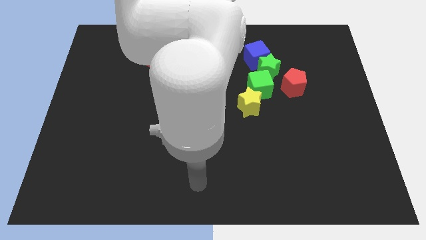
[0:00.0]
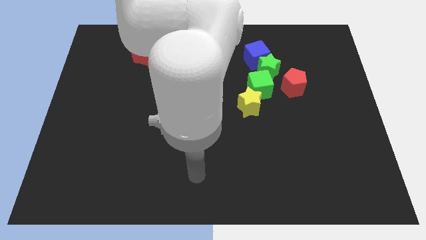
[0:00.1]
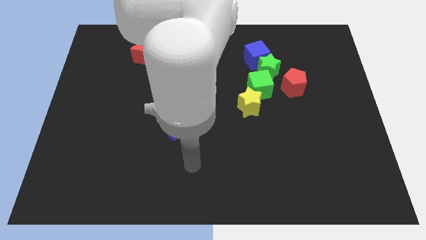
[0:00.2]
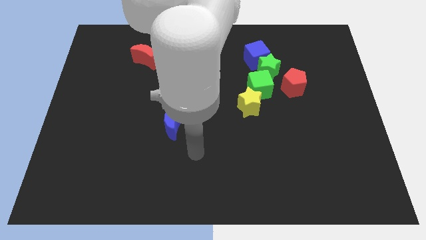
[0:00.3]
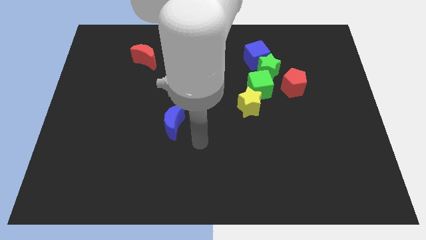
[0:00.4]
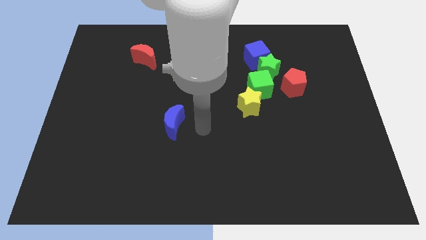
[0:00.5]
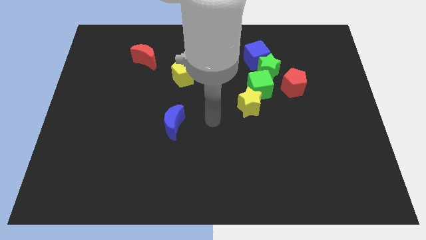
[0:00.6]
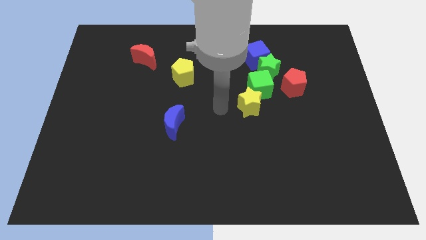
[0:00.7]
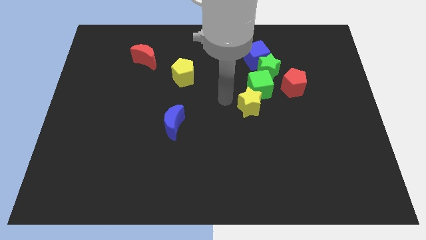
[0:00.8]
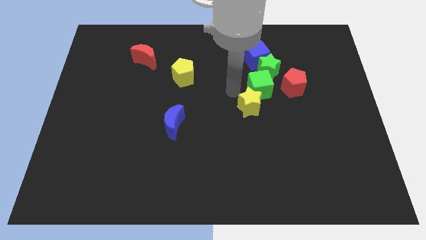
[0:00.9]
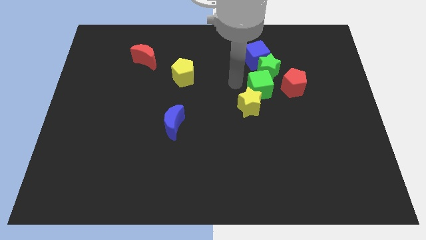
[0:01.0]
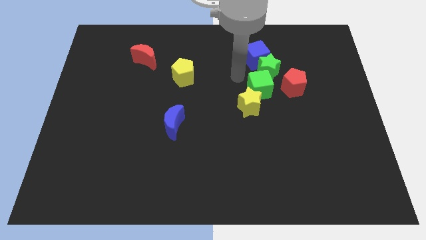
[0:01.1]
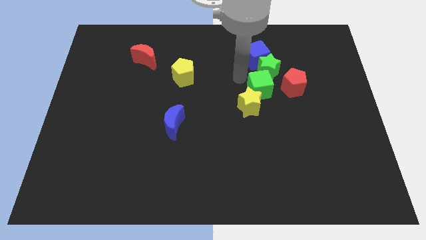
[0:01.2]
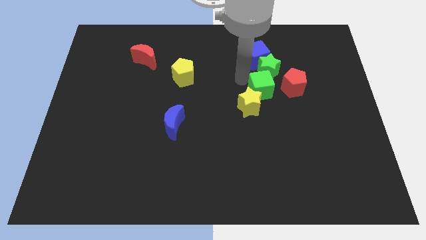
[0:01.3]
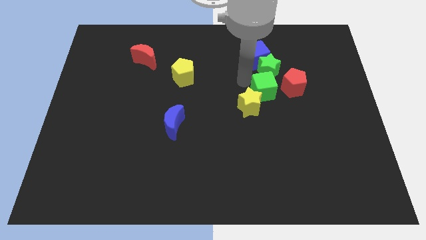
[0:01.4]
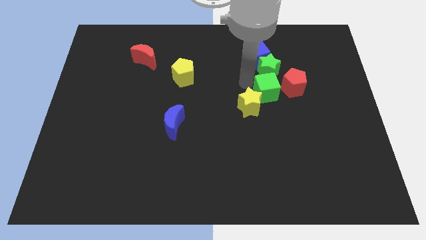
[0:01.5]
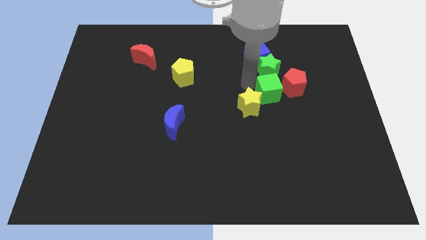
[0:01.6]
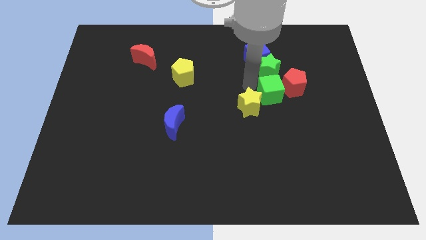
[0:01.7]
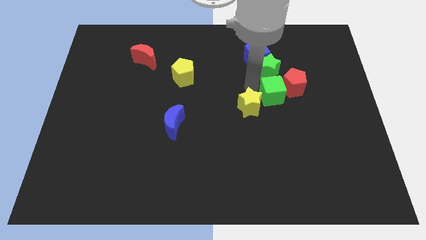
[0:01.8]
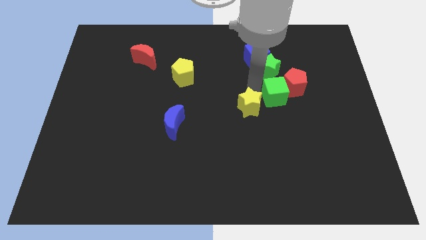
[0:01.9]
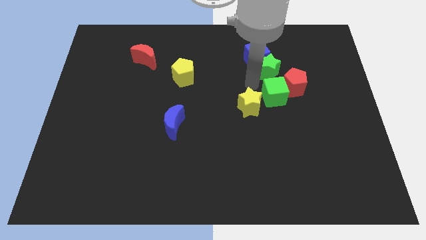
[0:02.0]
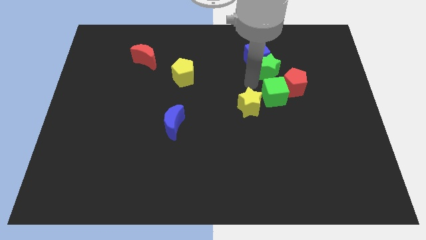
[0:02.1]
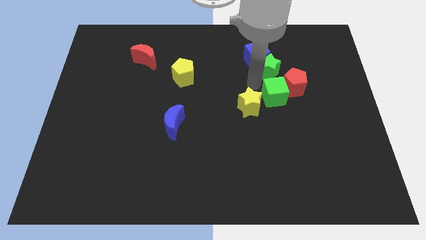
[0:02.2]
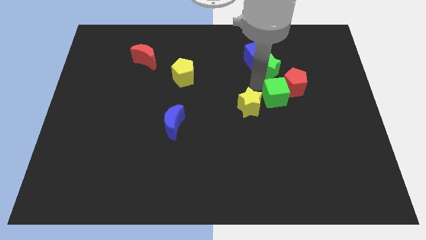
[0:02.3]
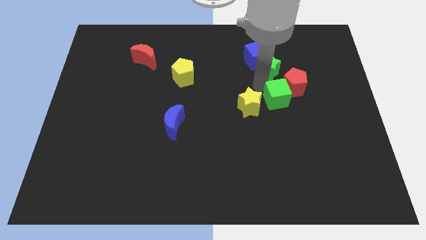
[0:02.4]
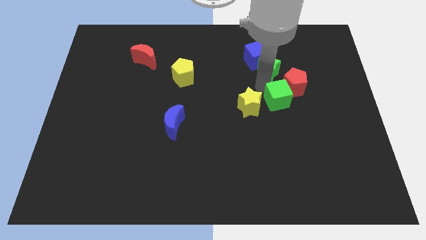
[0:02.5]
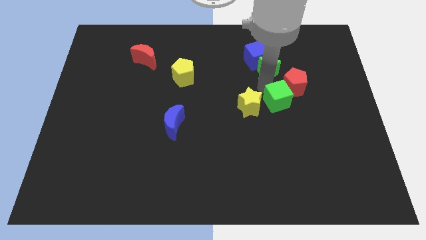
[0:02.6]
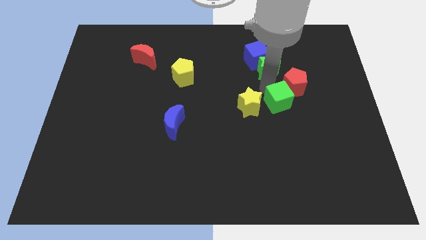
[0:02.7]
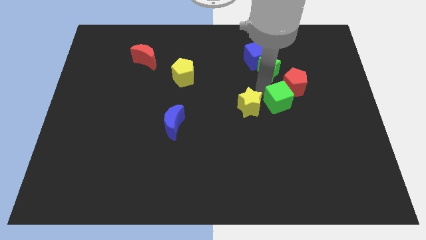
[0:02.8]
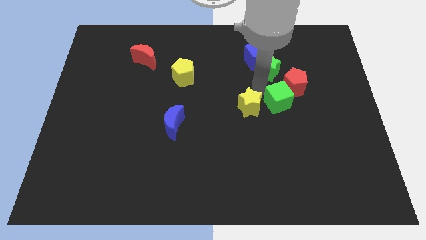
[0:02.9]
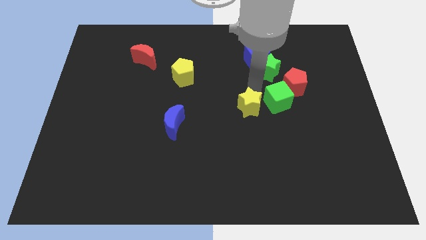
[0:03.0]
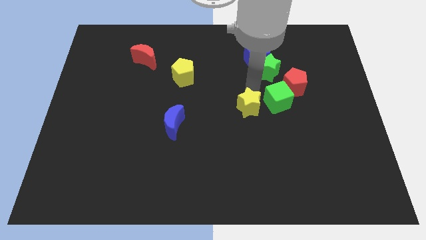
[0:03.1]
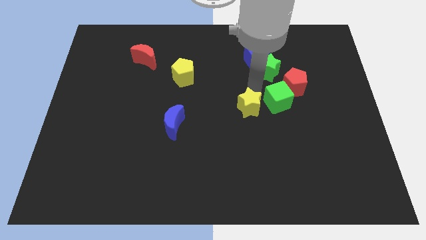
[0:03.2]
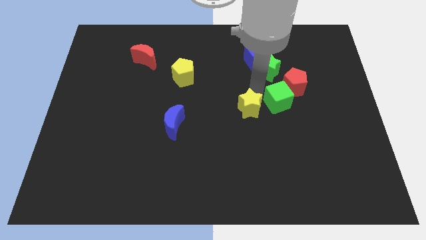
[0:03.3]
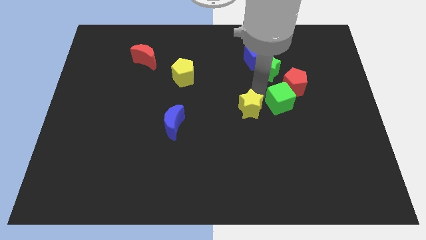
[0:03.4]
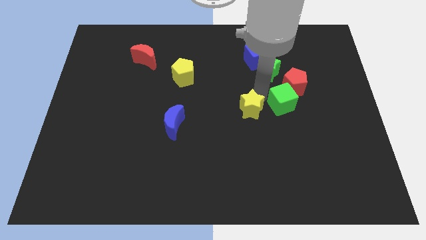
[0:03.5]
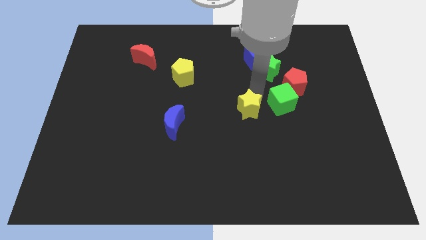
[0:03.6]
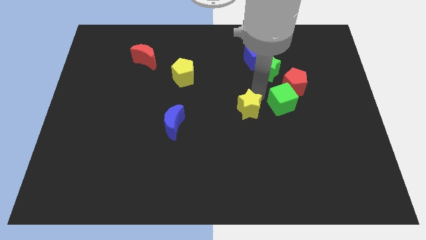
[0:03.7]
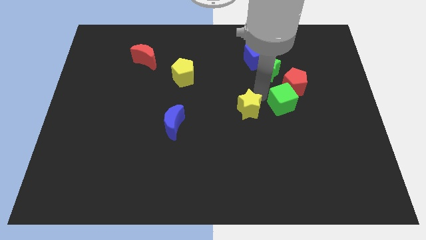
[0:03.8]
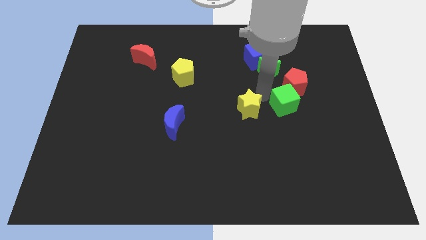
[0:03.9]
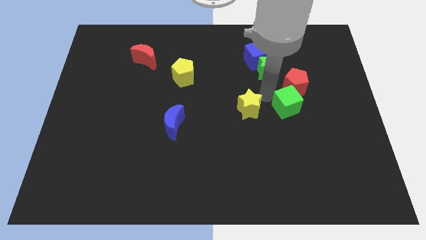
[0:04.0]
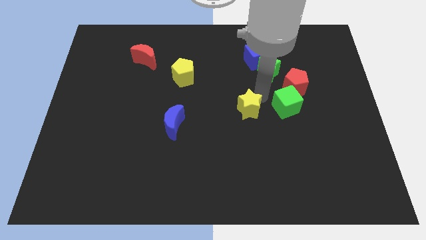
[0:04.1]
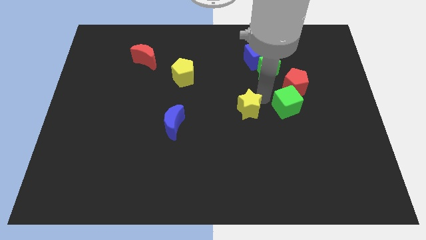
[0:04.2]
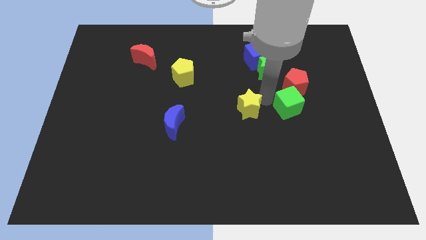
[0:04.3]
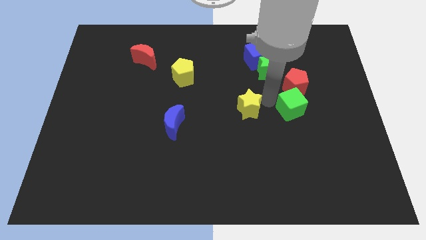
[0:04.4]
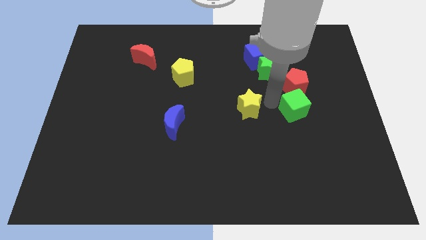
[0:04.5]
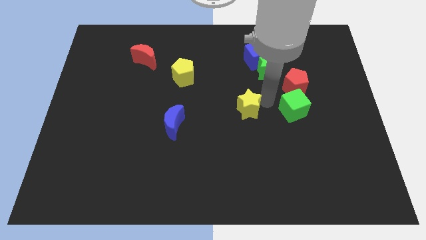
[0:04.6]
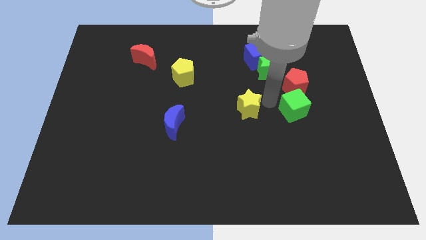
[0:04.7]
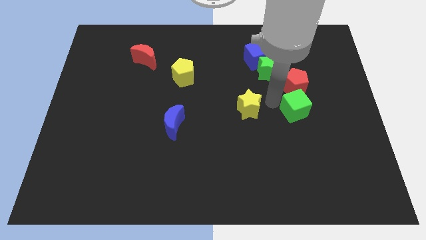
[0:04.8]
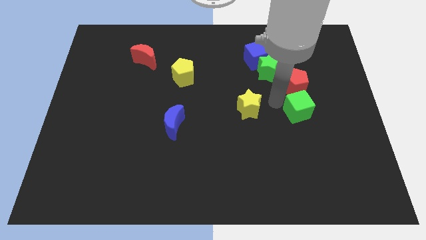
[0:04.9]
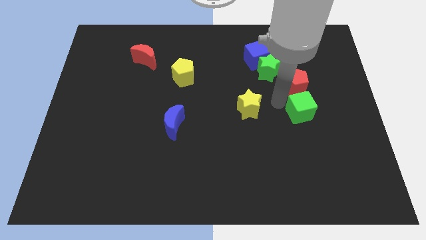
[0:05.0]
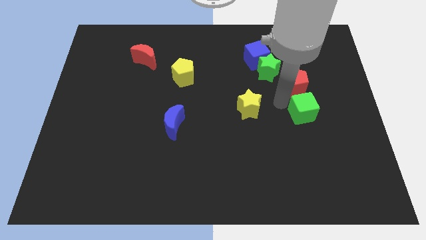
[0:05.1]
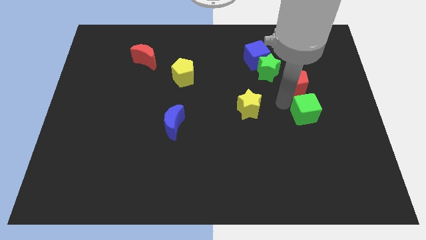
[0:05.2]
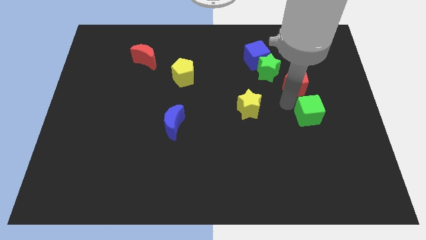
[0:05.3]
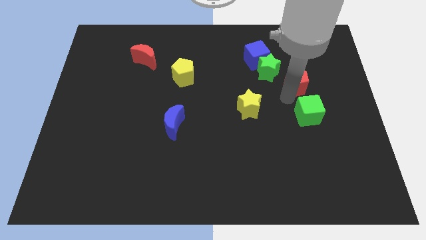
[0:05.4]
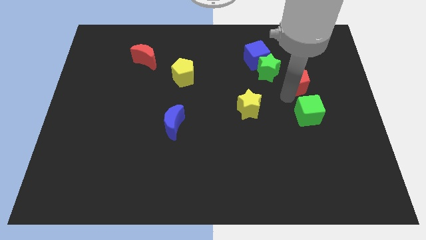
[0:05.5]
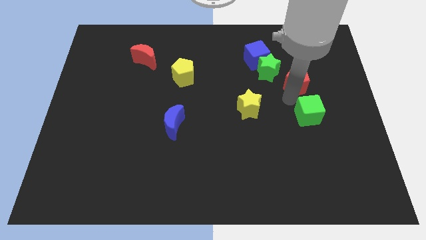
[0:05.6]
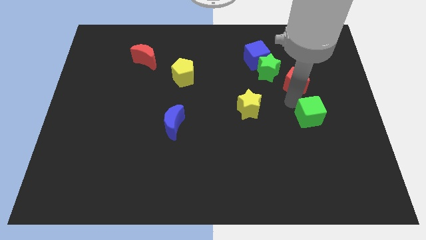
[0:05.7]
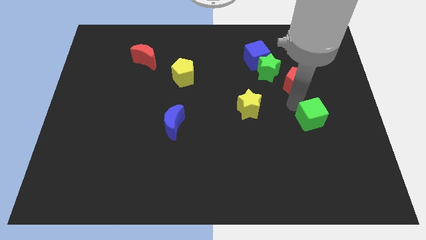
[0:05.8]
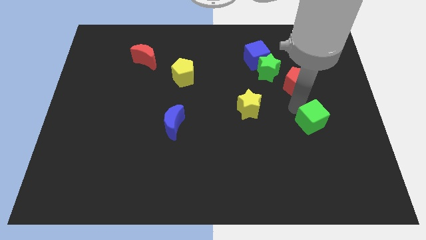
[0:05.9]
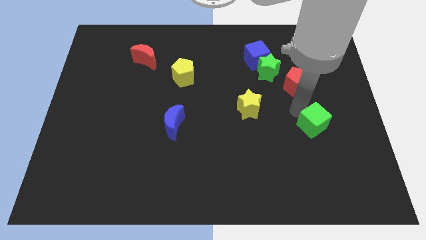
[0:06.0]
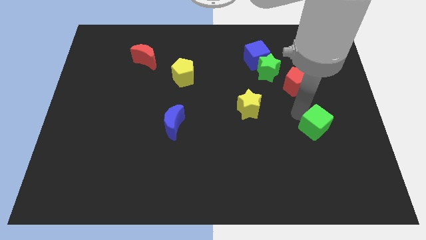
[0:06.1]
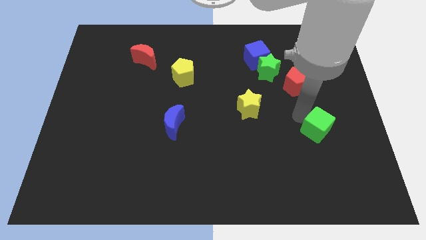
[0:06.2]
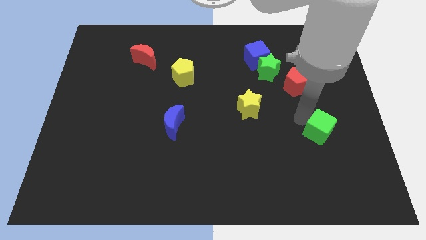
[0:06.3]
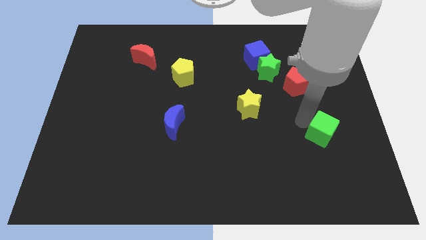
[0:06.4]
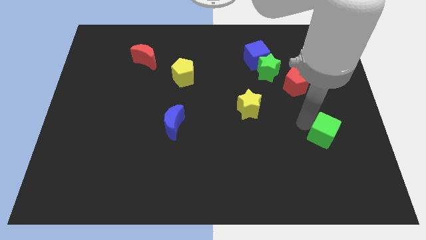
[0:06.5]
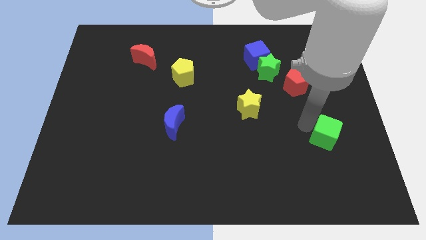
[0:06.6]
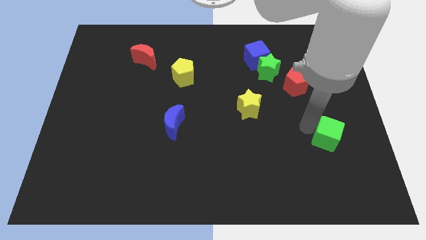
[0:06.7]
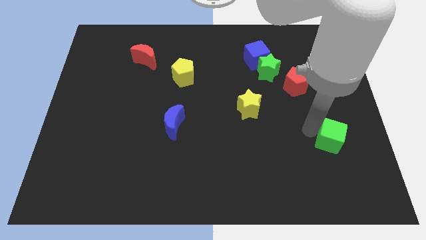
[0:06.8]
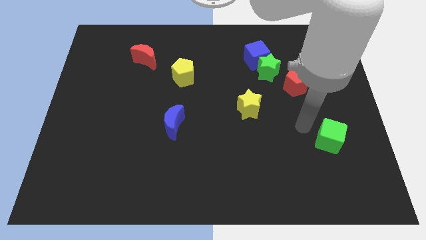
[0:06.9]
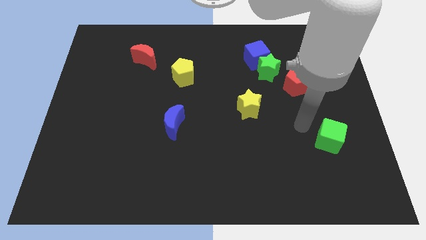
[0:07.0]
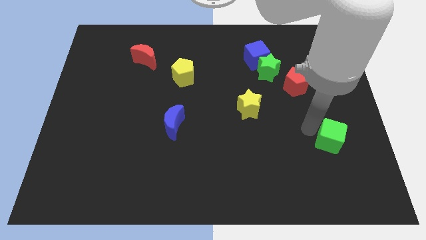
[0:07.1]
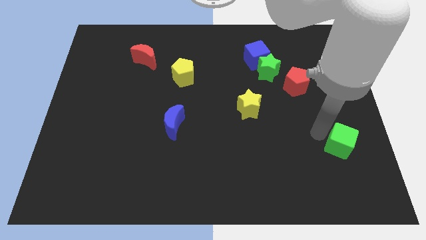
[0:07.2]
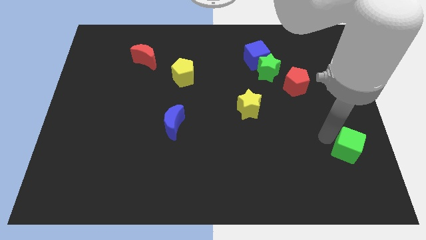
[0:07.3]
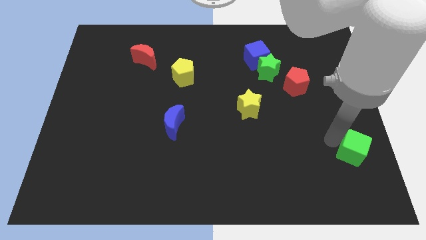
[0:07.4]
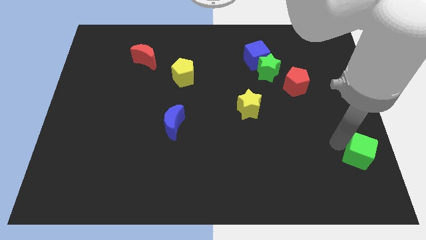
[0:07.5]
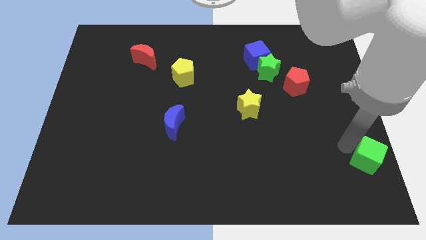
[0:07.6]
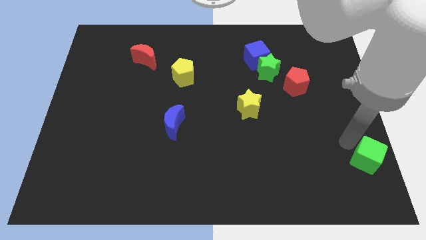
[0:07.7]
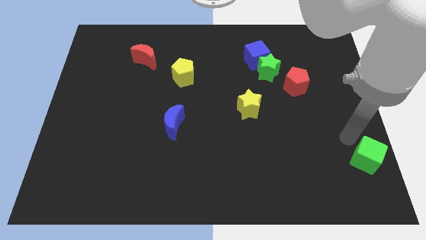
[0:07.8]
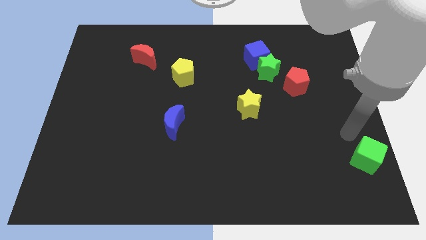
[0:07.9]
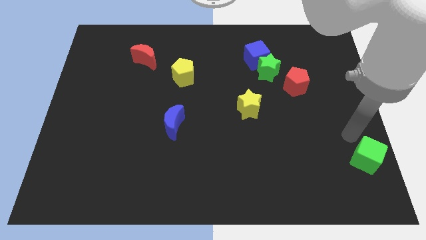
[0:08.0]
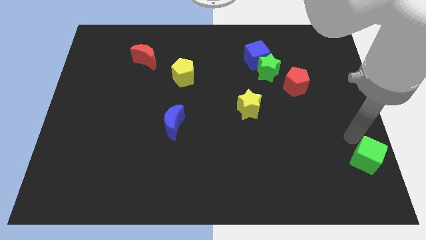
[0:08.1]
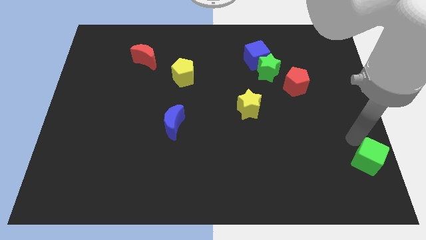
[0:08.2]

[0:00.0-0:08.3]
move the green cube to the bottom right
